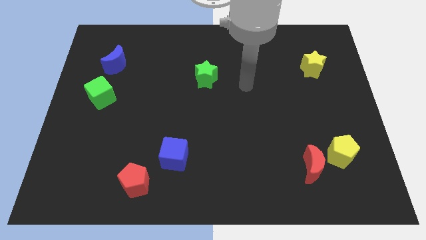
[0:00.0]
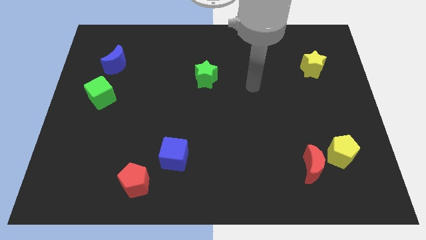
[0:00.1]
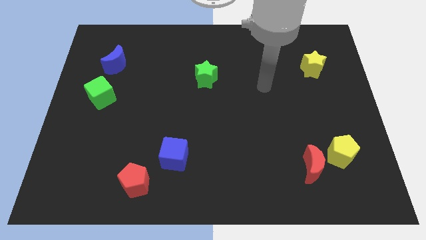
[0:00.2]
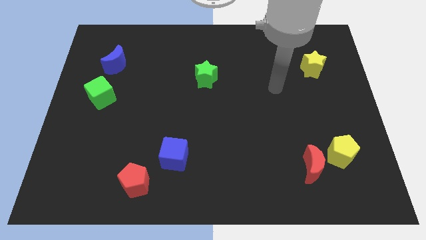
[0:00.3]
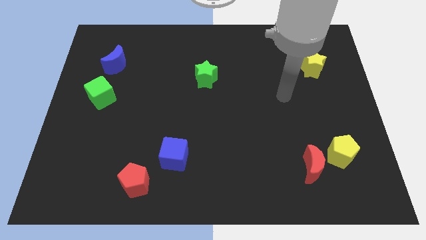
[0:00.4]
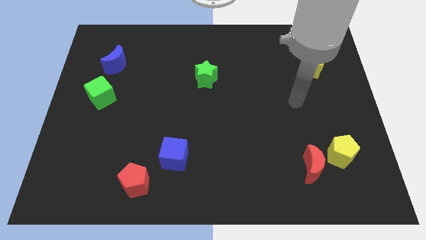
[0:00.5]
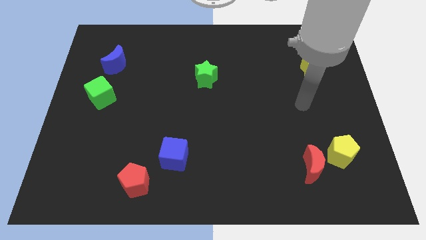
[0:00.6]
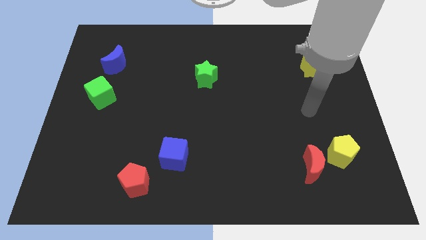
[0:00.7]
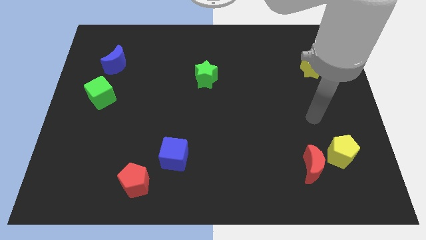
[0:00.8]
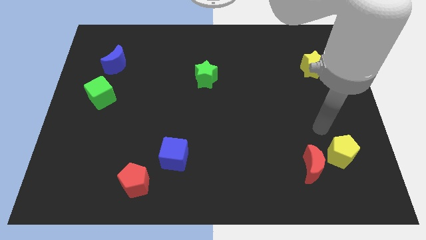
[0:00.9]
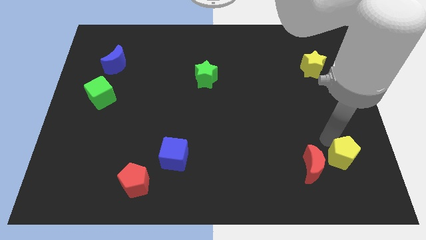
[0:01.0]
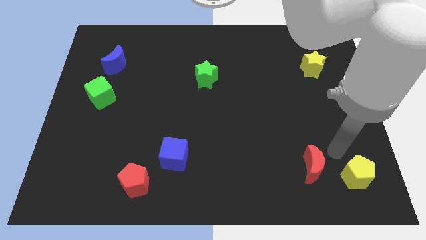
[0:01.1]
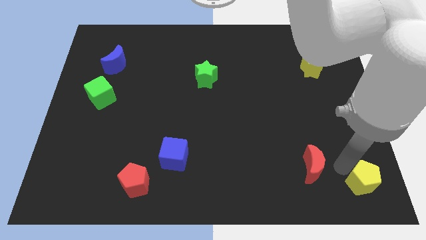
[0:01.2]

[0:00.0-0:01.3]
pull the red moon apart from the yellow pentagon

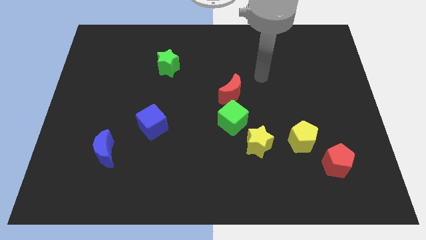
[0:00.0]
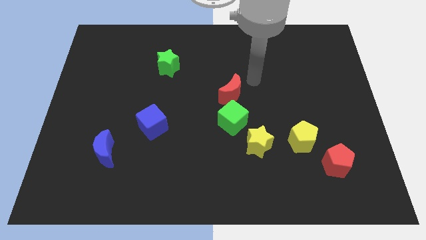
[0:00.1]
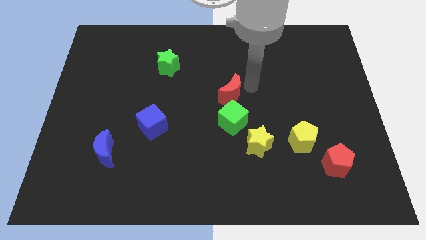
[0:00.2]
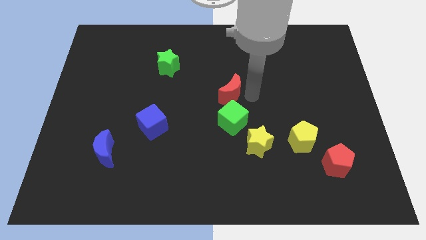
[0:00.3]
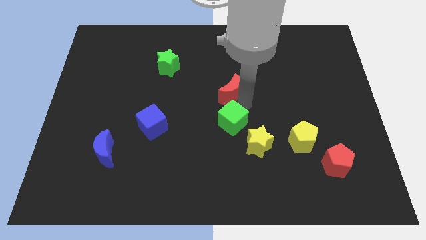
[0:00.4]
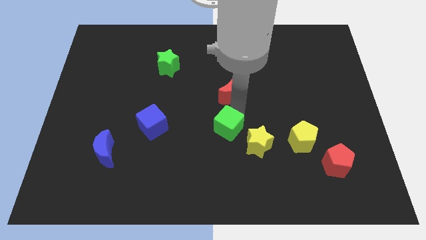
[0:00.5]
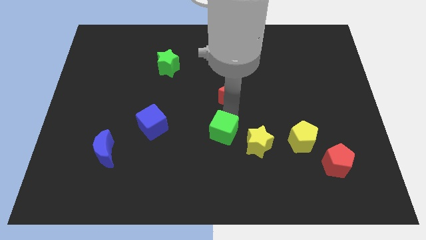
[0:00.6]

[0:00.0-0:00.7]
pull the red moon apart from the green cube

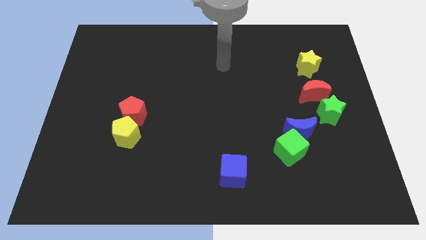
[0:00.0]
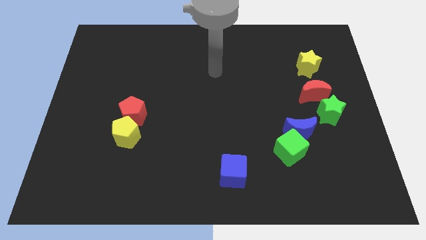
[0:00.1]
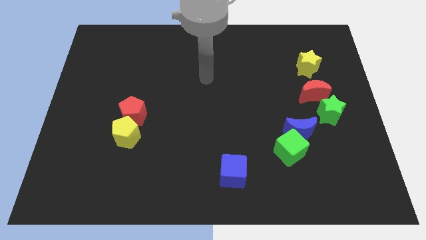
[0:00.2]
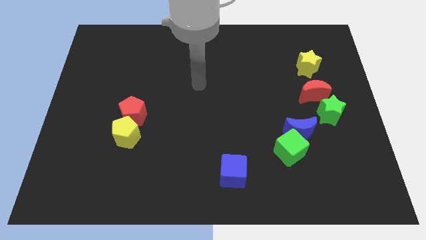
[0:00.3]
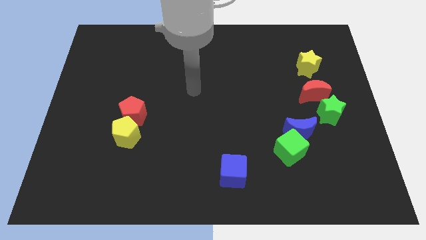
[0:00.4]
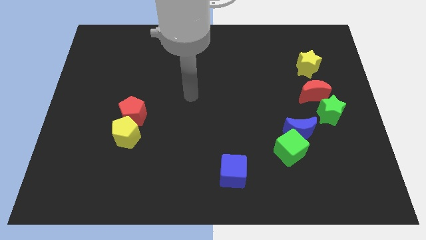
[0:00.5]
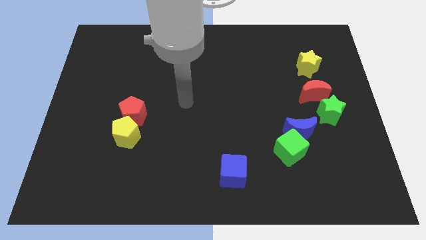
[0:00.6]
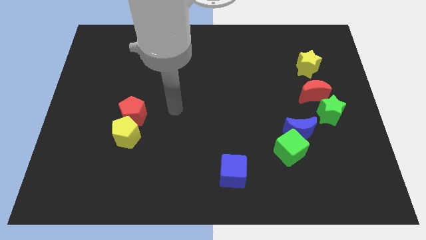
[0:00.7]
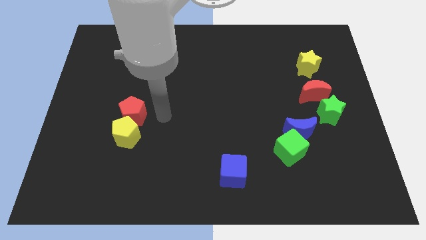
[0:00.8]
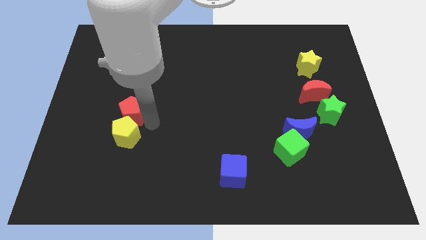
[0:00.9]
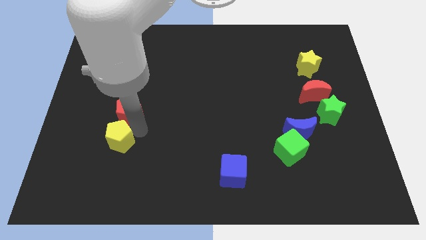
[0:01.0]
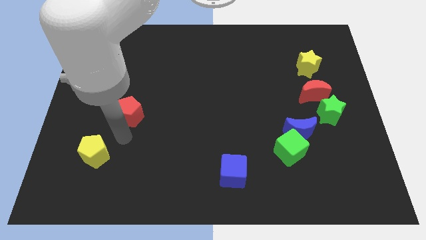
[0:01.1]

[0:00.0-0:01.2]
move the red pentagon away from the yellow pentagon

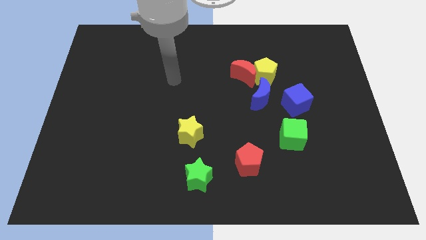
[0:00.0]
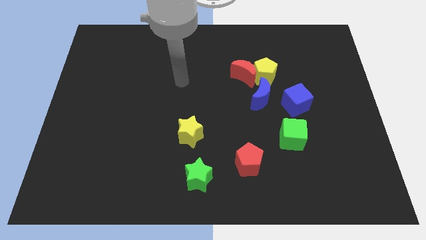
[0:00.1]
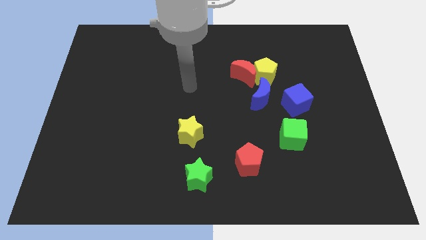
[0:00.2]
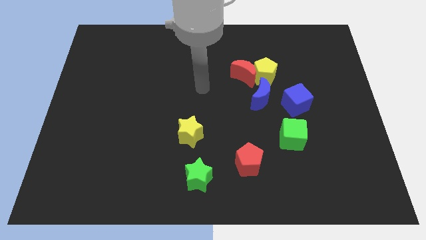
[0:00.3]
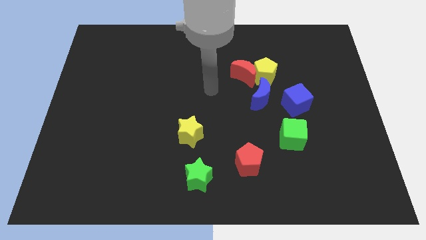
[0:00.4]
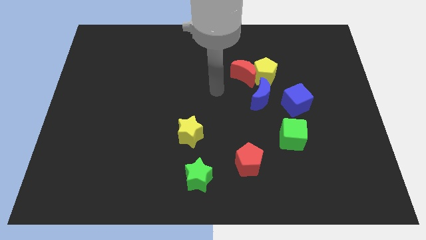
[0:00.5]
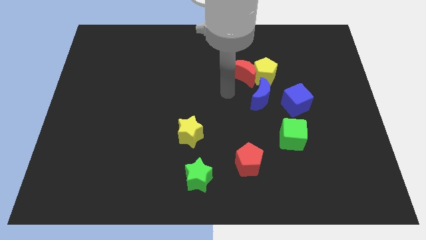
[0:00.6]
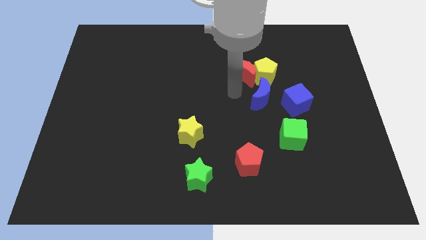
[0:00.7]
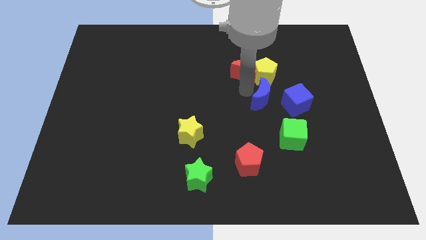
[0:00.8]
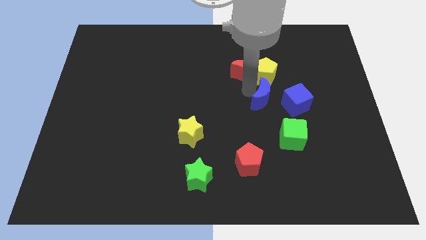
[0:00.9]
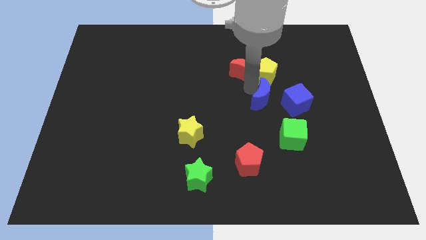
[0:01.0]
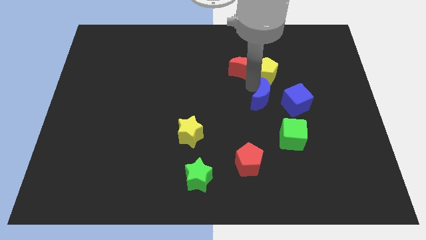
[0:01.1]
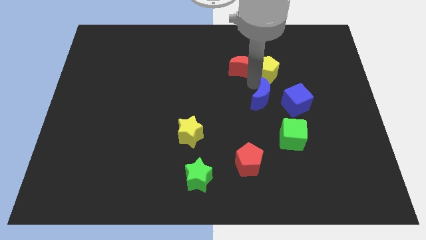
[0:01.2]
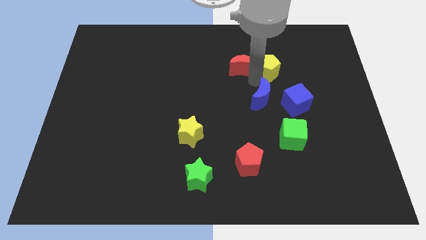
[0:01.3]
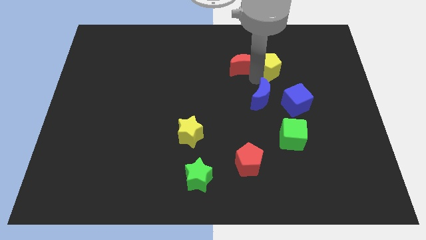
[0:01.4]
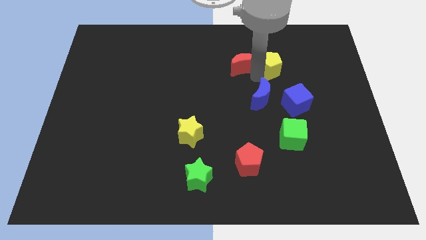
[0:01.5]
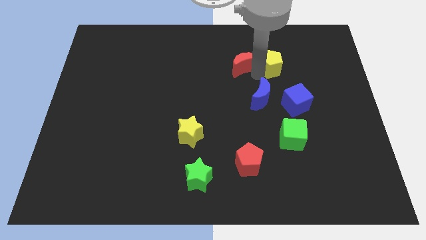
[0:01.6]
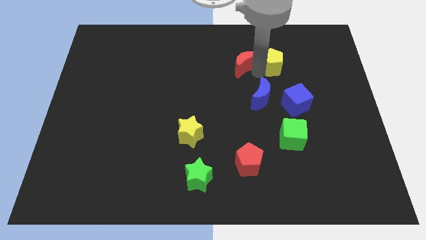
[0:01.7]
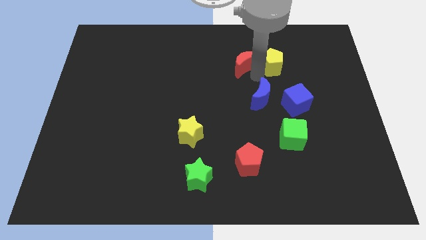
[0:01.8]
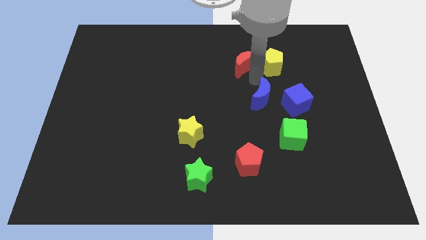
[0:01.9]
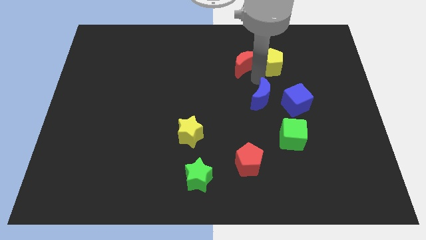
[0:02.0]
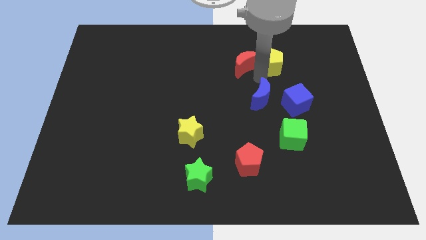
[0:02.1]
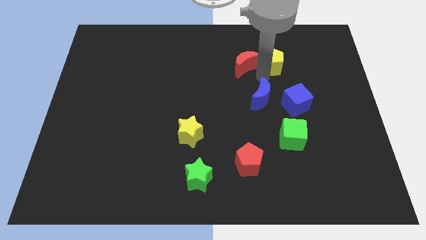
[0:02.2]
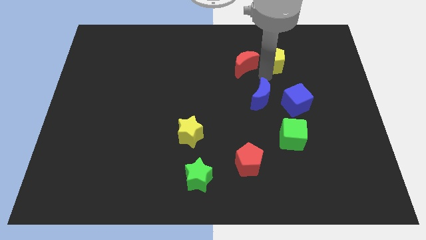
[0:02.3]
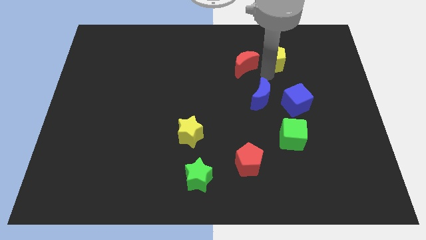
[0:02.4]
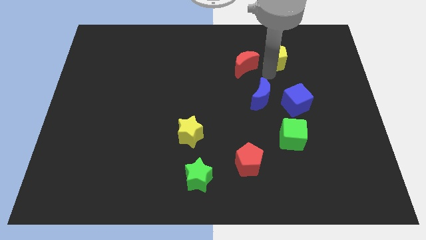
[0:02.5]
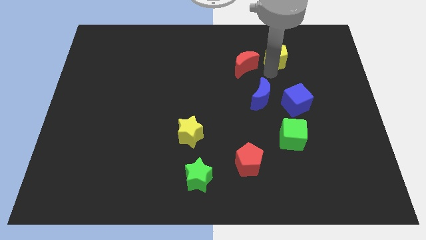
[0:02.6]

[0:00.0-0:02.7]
move the yellow pentagon away from the red moon and blue moon

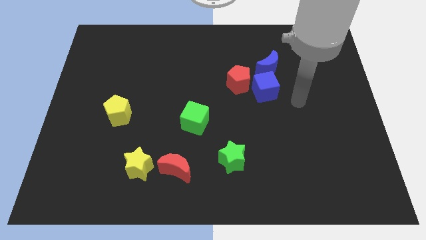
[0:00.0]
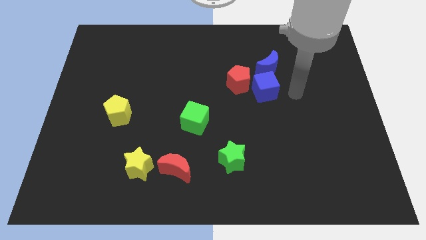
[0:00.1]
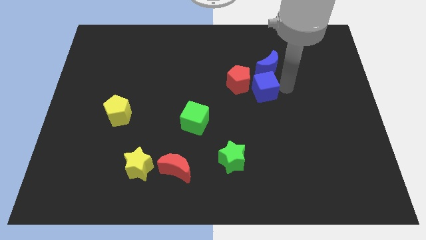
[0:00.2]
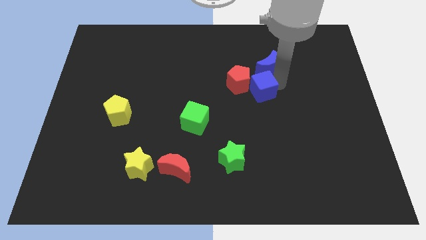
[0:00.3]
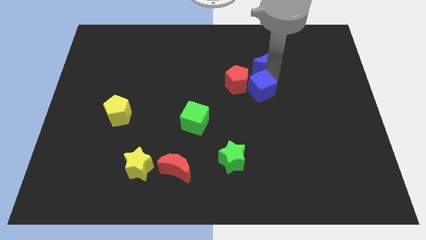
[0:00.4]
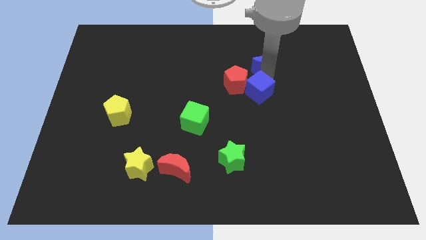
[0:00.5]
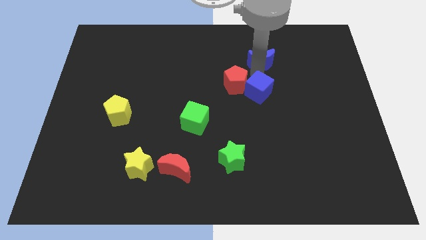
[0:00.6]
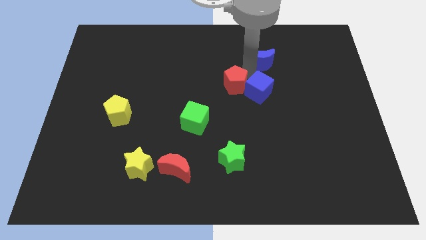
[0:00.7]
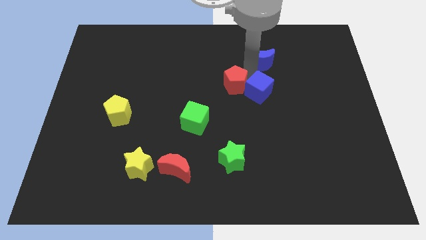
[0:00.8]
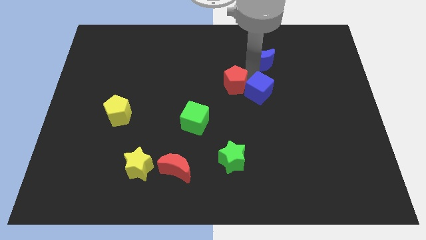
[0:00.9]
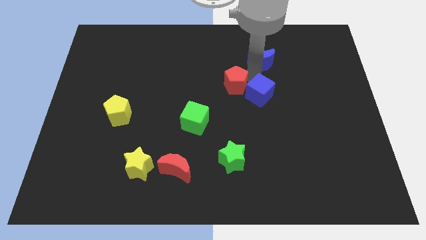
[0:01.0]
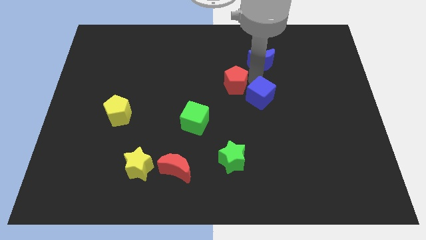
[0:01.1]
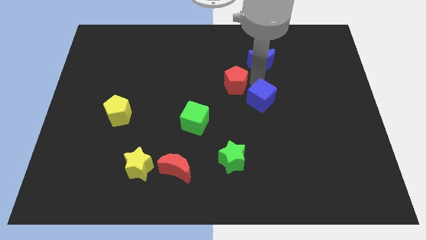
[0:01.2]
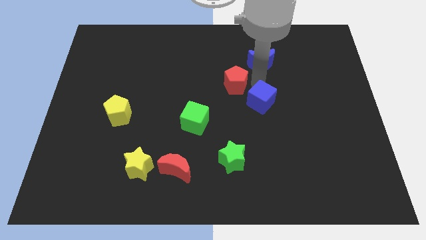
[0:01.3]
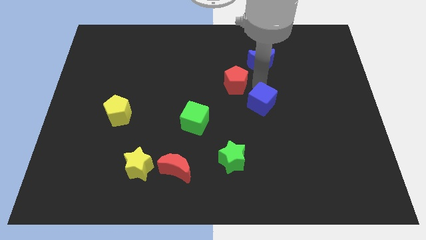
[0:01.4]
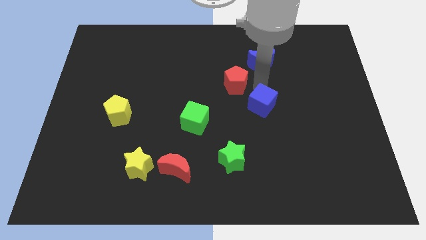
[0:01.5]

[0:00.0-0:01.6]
move the blue cube away from the red pentagon and blue moon

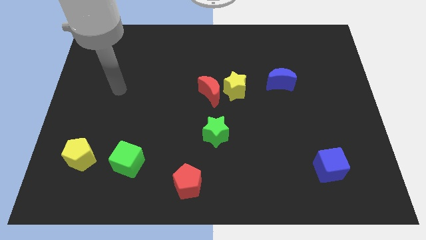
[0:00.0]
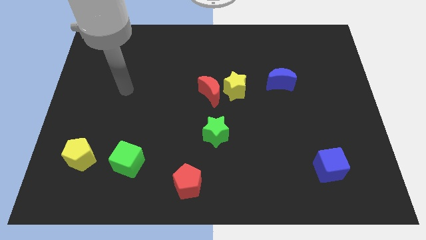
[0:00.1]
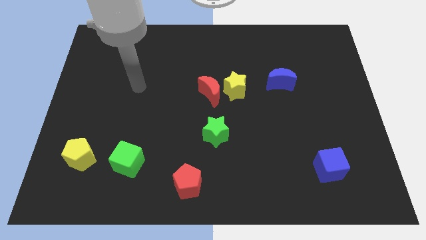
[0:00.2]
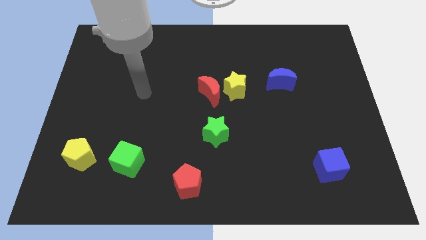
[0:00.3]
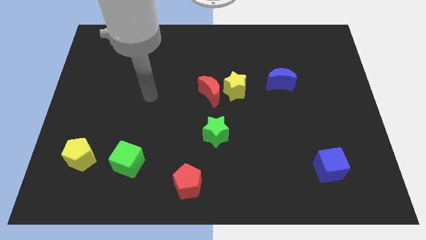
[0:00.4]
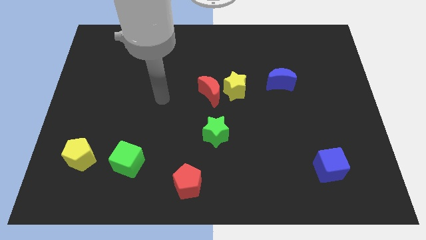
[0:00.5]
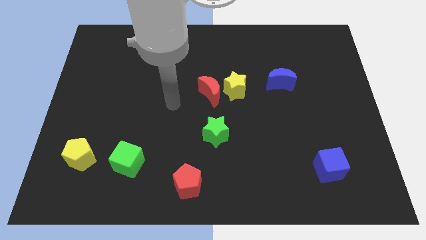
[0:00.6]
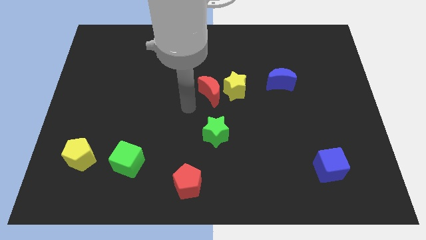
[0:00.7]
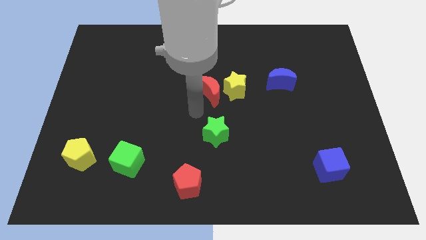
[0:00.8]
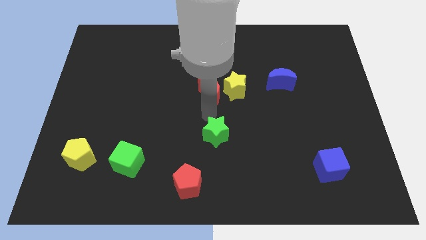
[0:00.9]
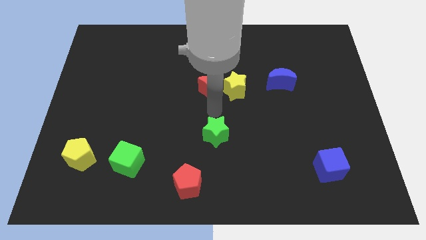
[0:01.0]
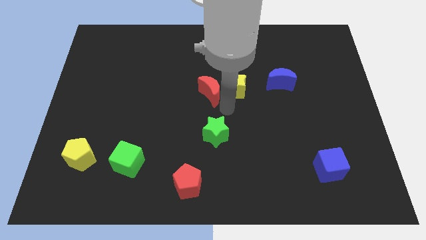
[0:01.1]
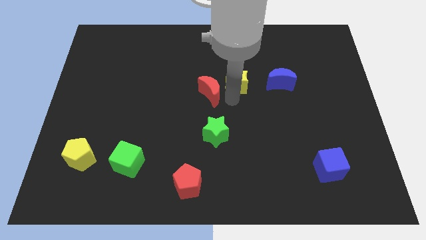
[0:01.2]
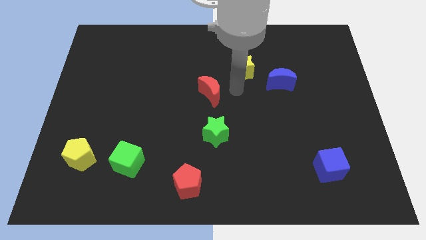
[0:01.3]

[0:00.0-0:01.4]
separate the red moon from the yellow star

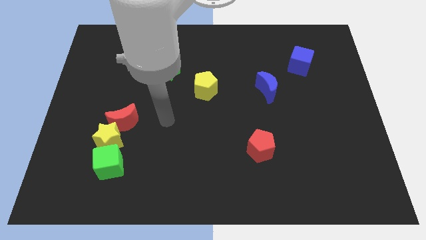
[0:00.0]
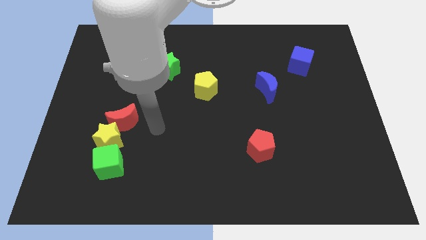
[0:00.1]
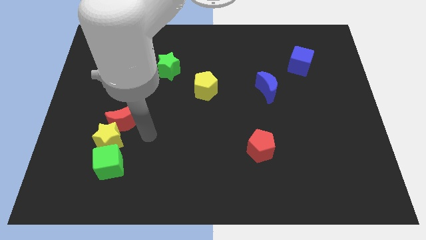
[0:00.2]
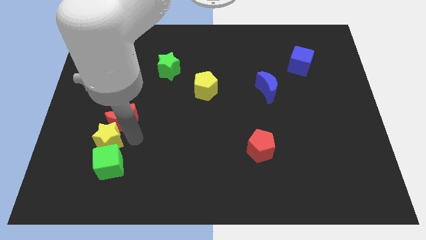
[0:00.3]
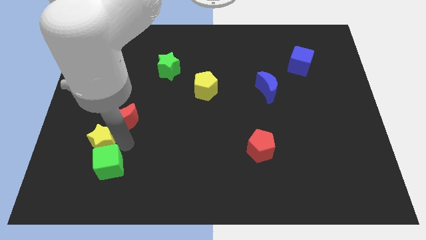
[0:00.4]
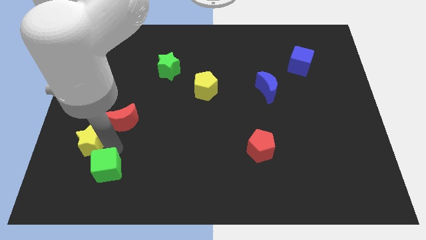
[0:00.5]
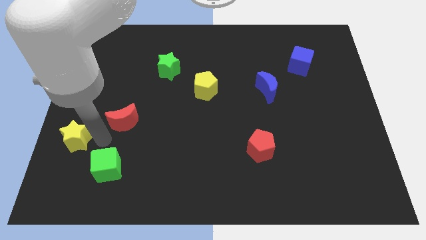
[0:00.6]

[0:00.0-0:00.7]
pull the red moon apart from the yellow star
